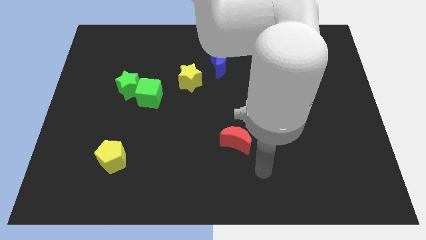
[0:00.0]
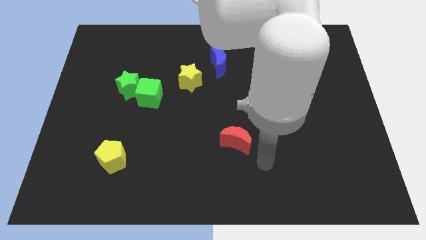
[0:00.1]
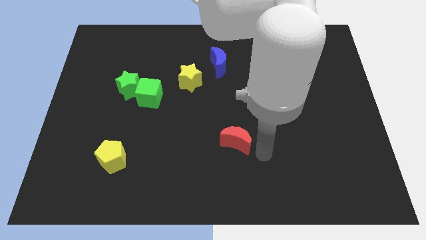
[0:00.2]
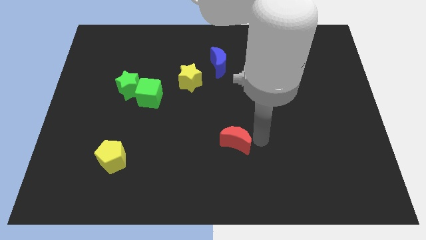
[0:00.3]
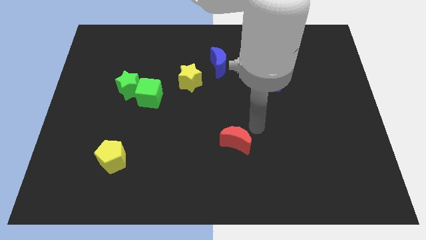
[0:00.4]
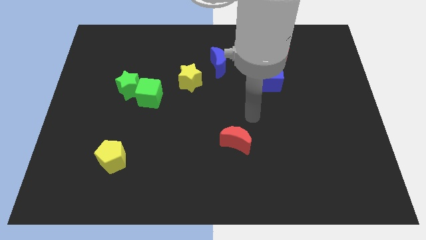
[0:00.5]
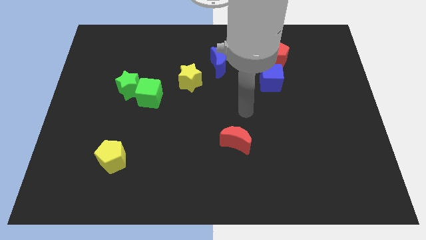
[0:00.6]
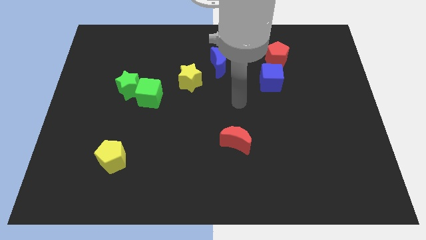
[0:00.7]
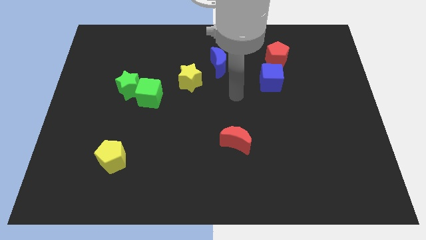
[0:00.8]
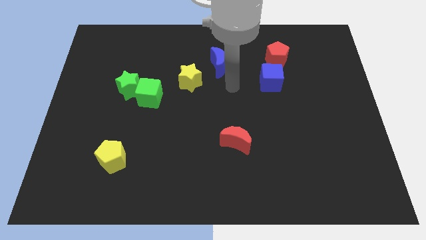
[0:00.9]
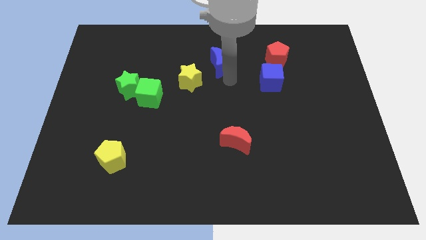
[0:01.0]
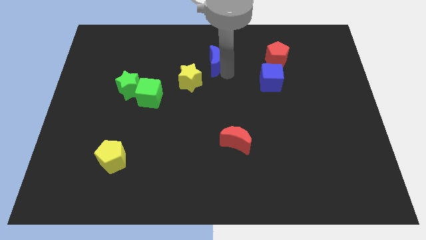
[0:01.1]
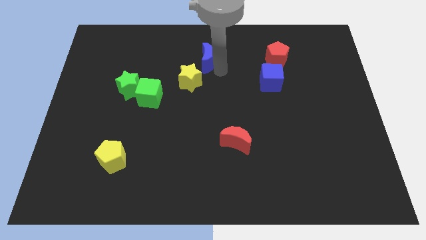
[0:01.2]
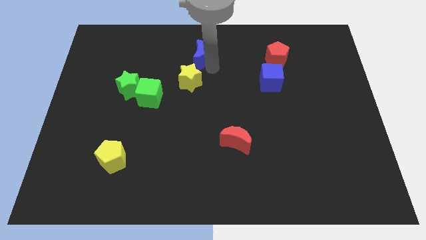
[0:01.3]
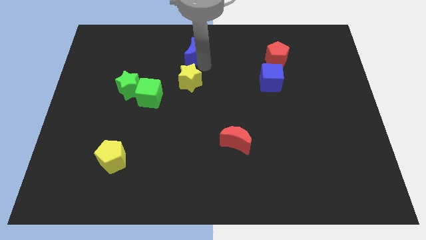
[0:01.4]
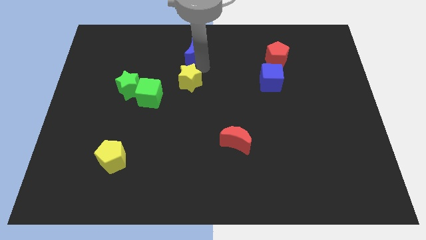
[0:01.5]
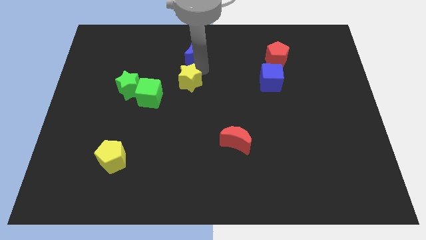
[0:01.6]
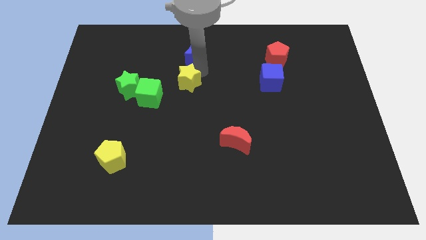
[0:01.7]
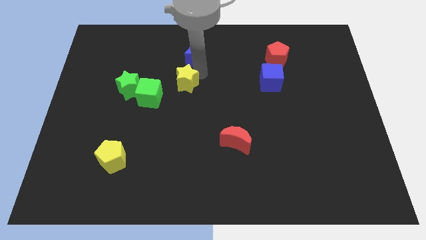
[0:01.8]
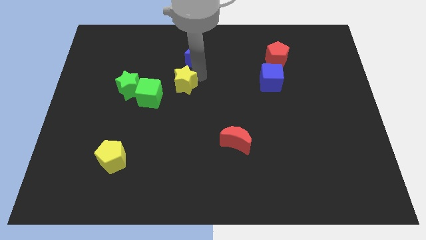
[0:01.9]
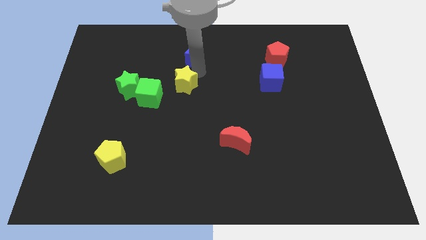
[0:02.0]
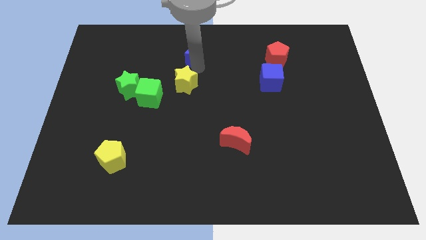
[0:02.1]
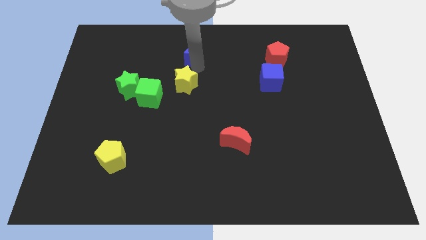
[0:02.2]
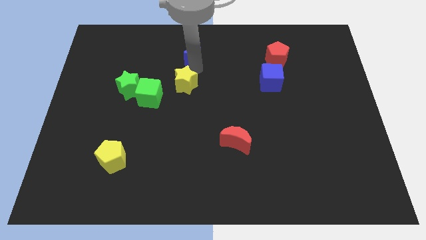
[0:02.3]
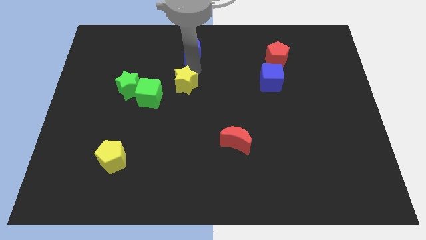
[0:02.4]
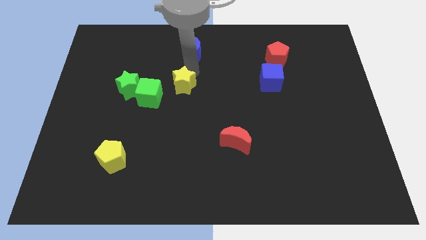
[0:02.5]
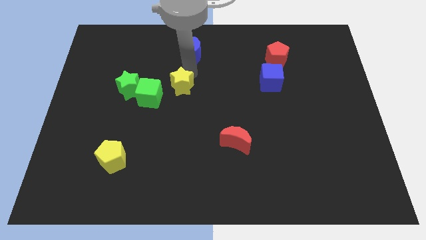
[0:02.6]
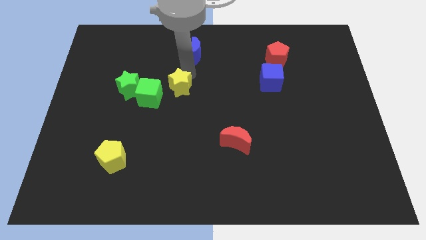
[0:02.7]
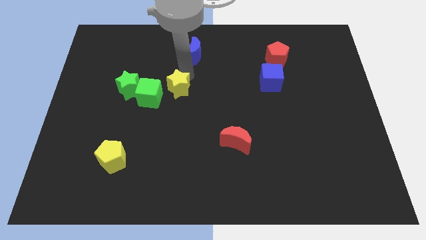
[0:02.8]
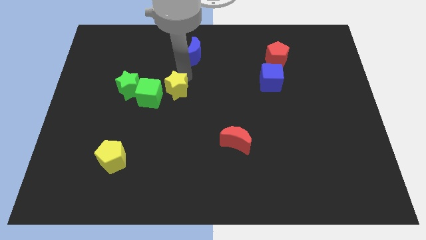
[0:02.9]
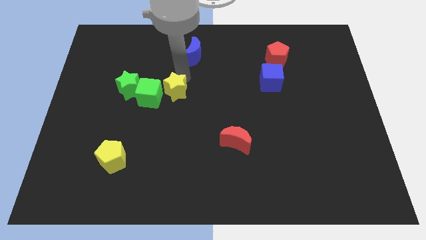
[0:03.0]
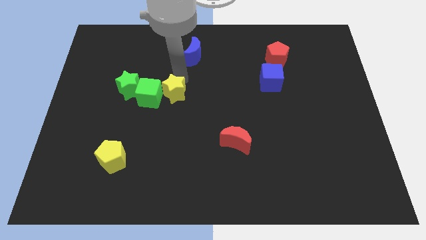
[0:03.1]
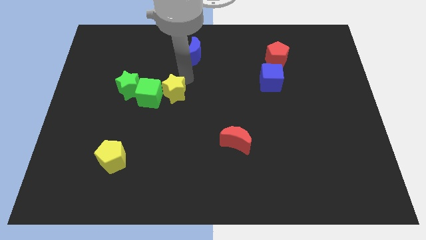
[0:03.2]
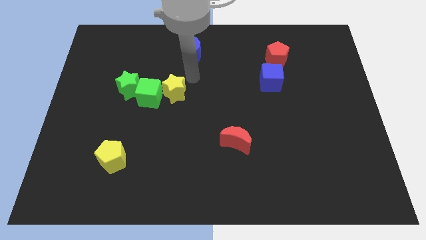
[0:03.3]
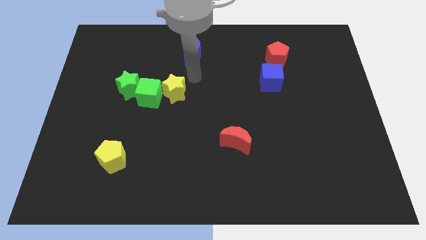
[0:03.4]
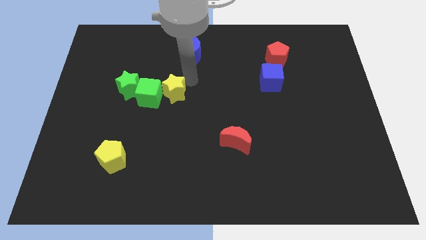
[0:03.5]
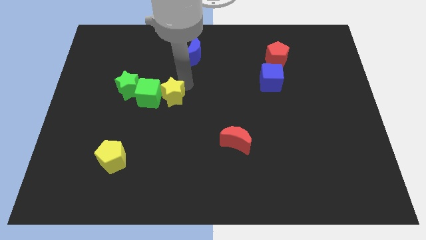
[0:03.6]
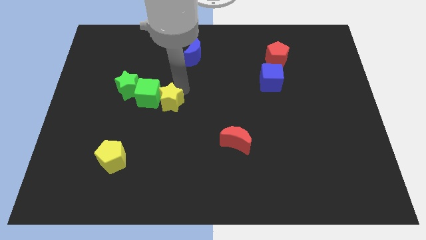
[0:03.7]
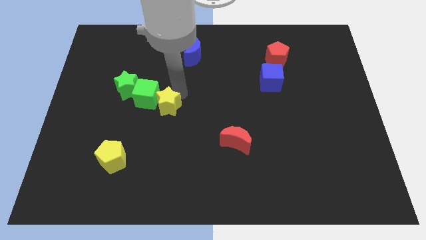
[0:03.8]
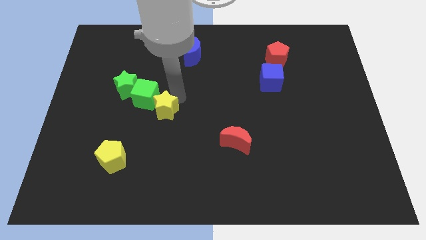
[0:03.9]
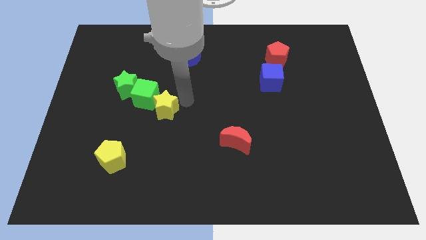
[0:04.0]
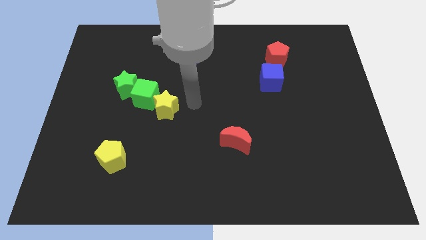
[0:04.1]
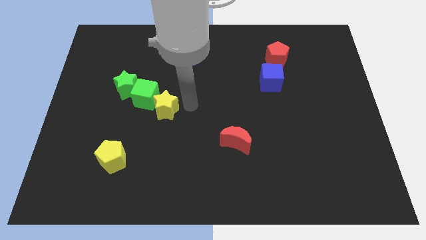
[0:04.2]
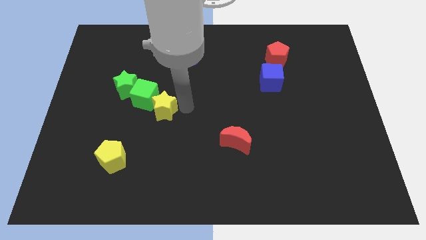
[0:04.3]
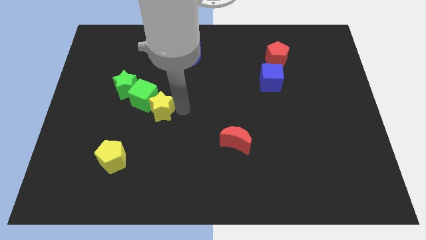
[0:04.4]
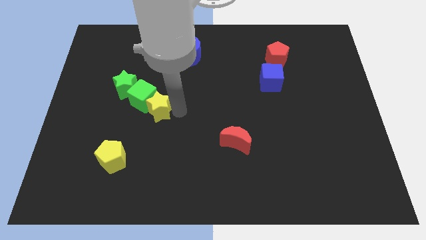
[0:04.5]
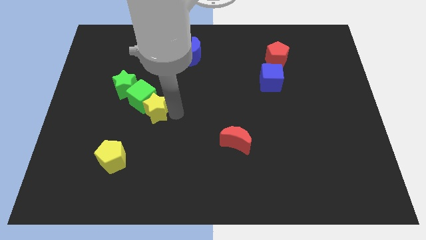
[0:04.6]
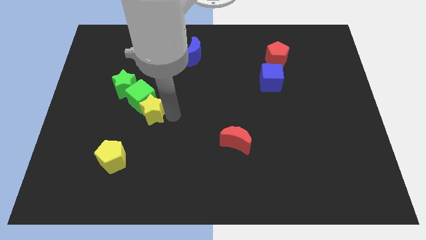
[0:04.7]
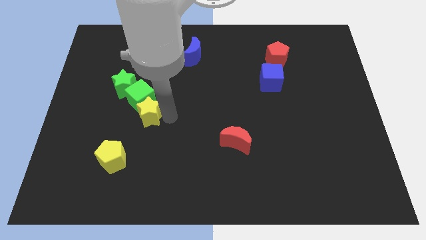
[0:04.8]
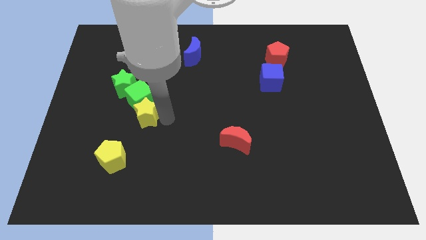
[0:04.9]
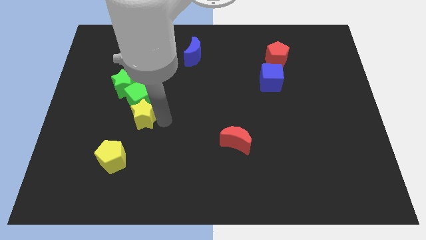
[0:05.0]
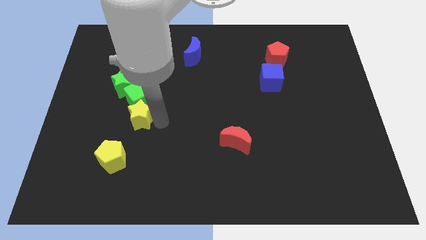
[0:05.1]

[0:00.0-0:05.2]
put the yellow star to the top side of the yellow pentagon

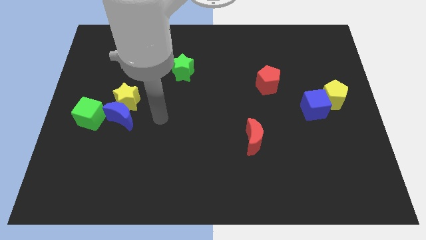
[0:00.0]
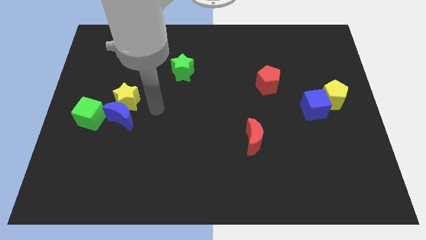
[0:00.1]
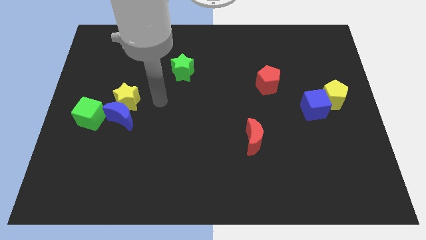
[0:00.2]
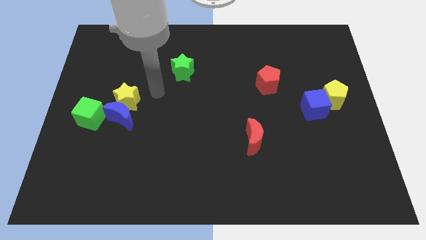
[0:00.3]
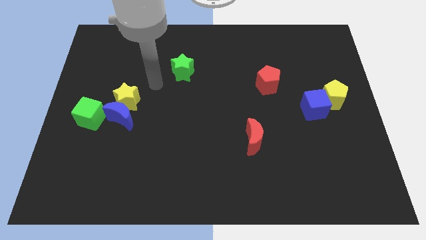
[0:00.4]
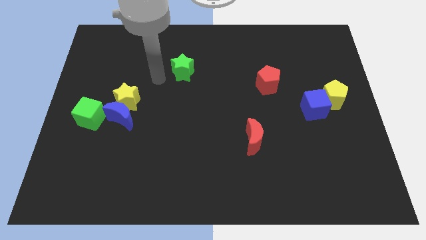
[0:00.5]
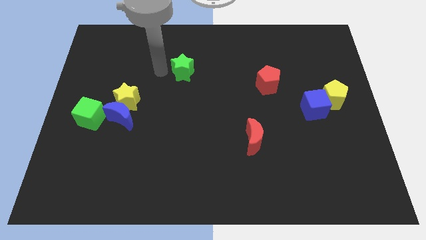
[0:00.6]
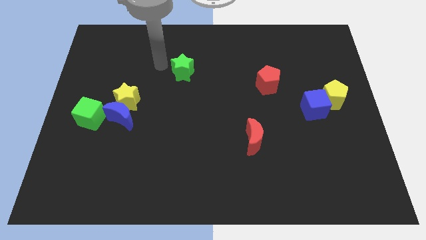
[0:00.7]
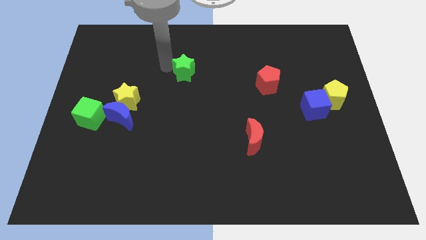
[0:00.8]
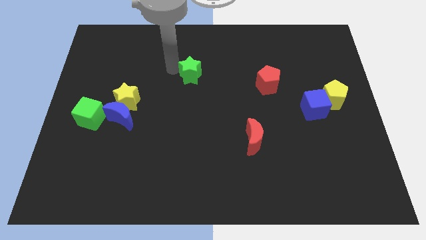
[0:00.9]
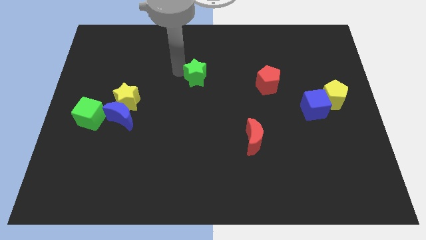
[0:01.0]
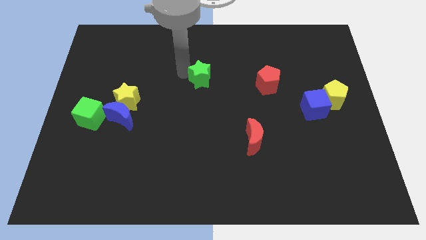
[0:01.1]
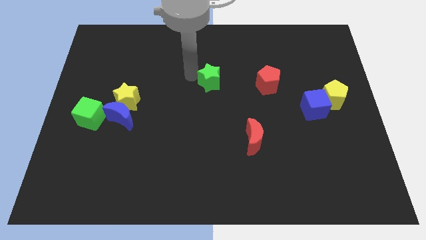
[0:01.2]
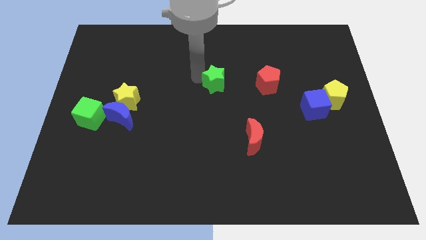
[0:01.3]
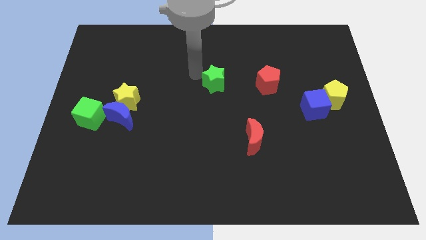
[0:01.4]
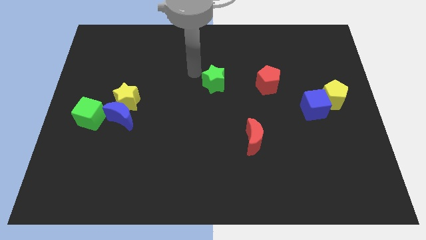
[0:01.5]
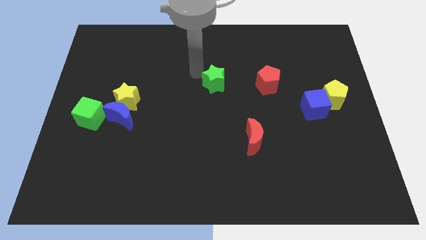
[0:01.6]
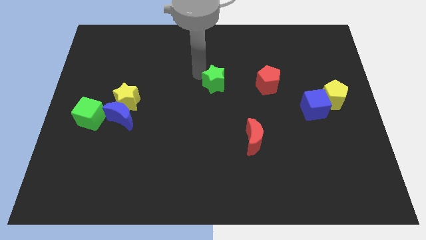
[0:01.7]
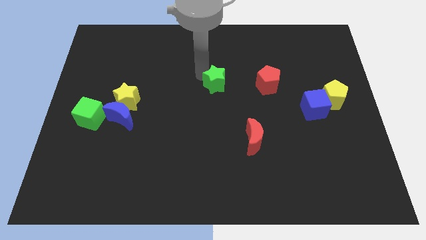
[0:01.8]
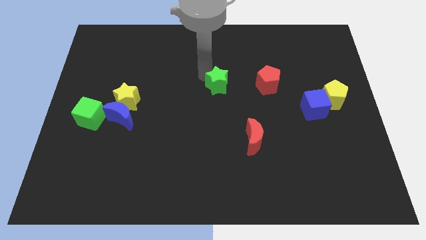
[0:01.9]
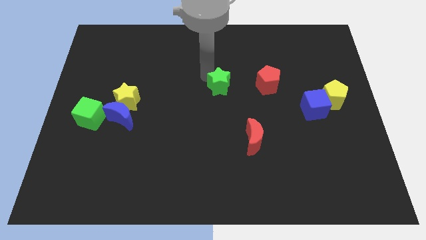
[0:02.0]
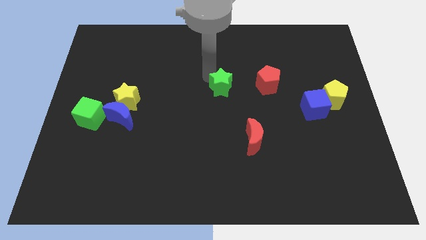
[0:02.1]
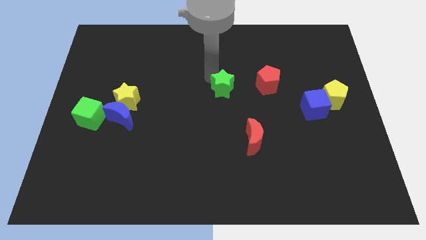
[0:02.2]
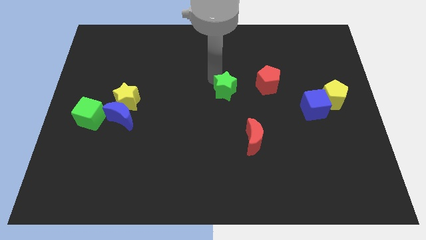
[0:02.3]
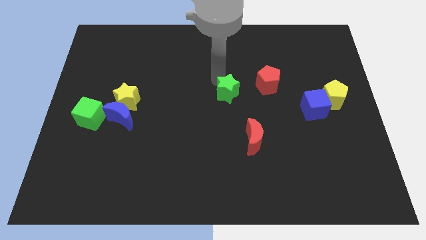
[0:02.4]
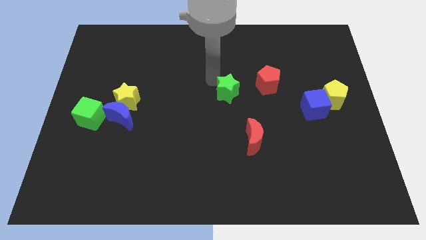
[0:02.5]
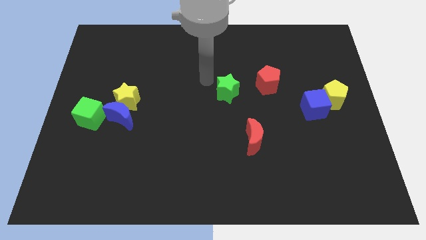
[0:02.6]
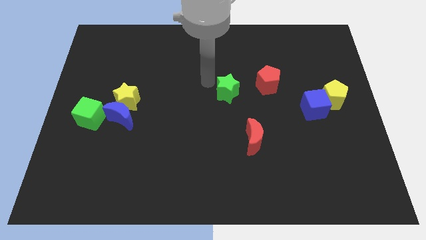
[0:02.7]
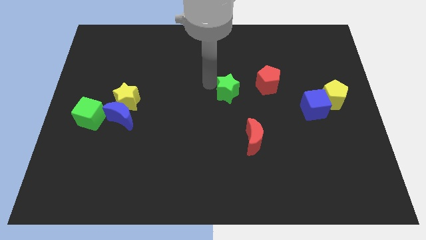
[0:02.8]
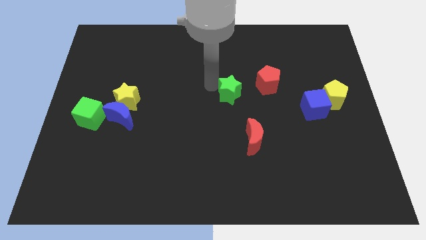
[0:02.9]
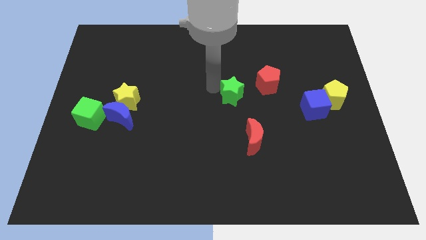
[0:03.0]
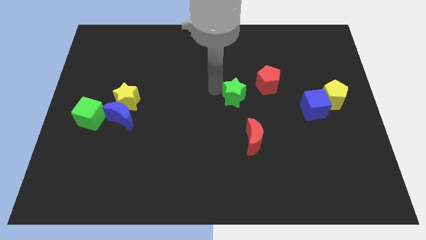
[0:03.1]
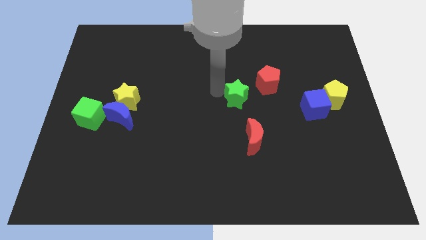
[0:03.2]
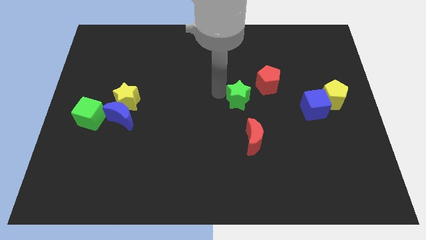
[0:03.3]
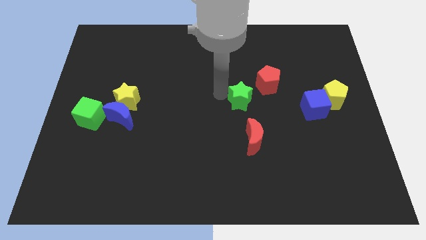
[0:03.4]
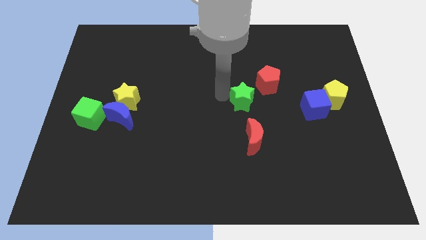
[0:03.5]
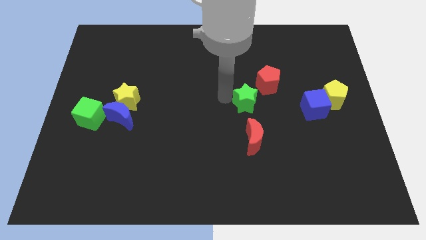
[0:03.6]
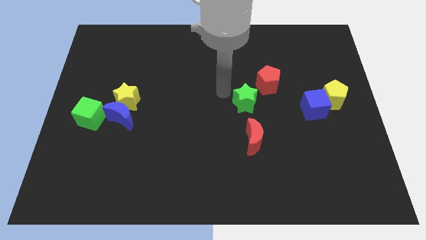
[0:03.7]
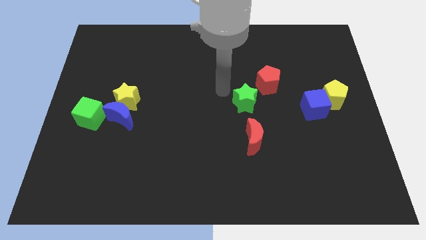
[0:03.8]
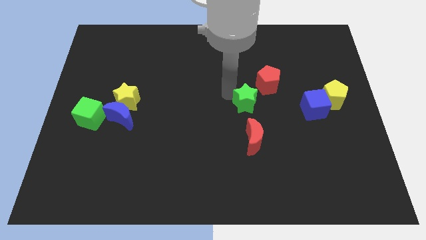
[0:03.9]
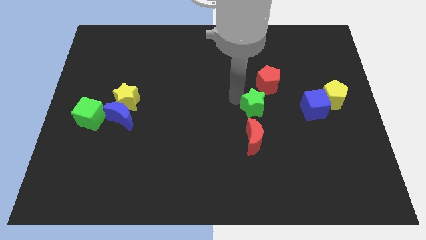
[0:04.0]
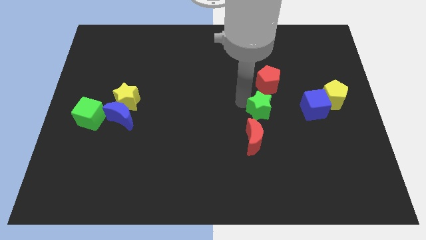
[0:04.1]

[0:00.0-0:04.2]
push the green star to the top right of the red moon
